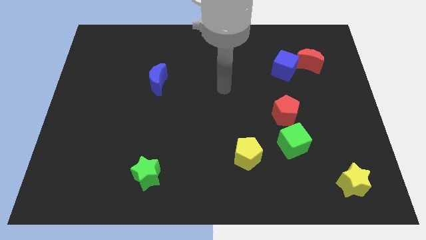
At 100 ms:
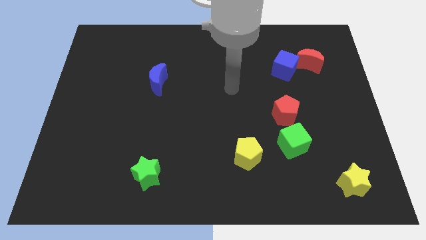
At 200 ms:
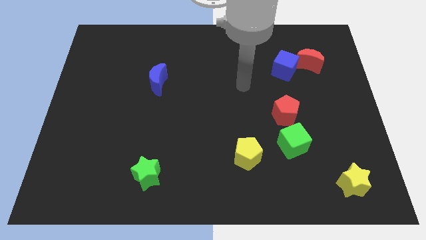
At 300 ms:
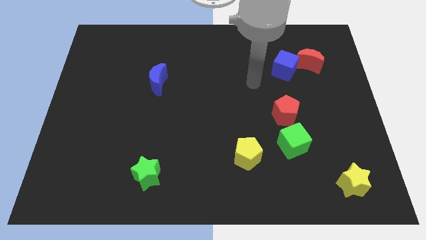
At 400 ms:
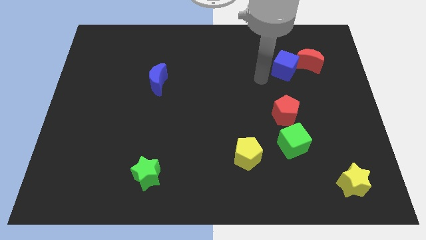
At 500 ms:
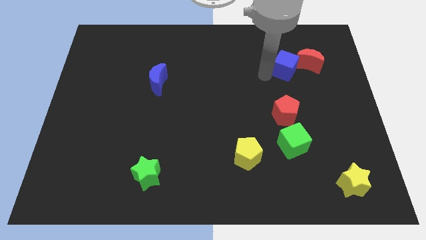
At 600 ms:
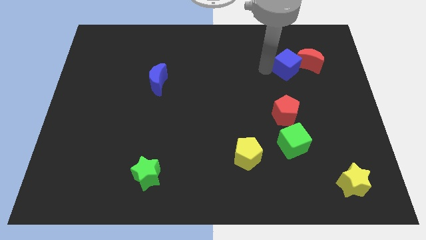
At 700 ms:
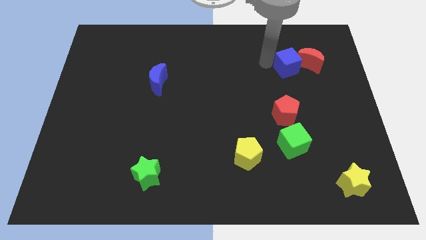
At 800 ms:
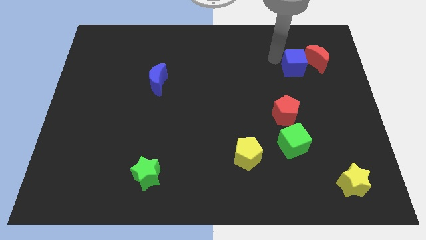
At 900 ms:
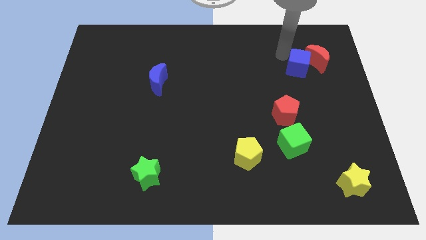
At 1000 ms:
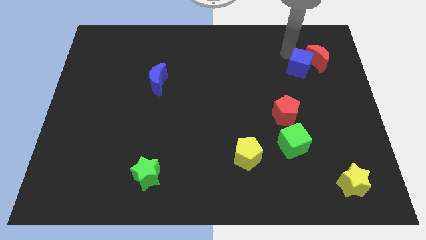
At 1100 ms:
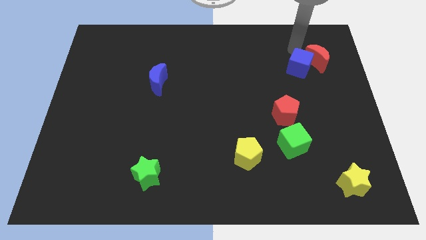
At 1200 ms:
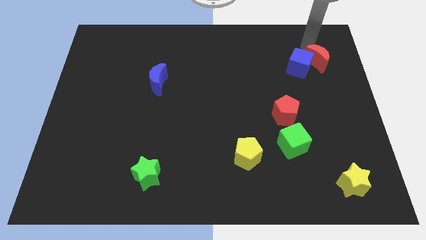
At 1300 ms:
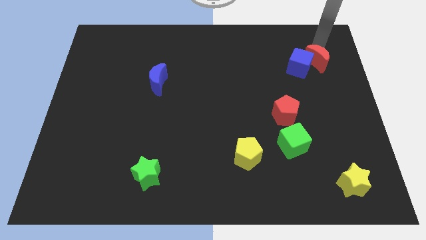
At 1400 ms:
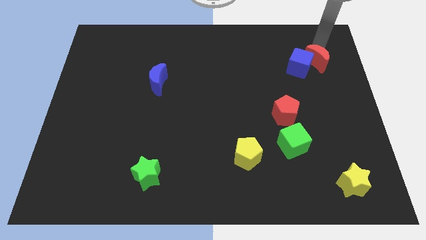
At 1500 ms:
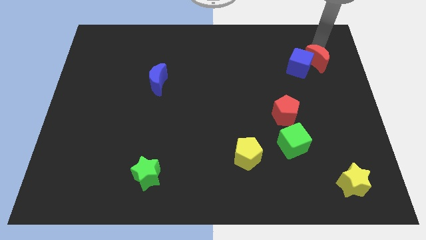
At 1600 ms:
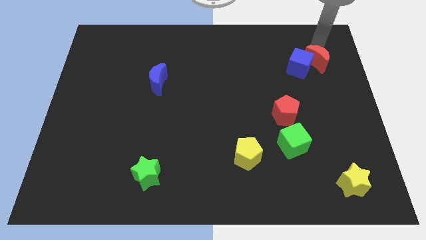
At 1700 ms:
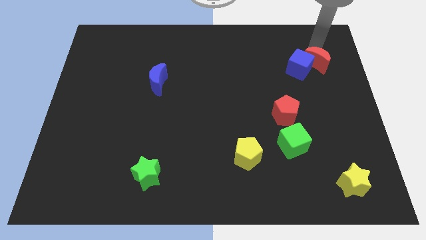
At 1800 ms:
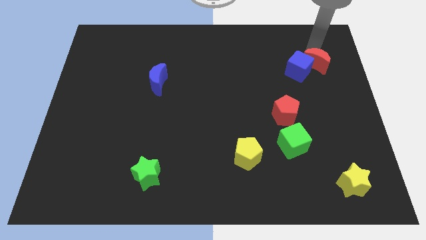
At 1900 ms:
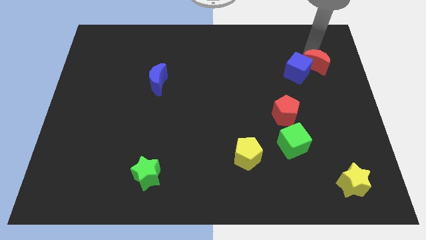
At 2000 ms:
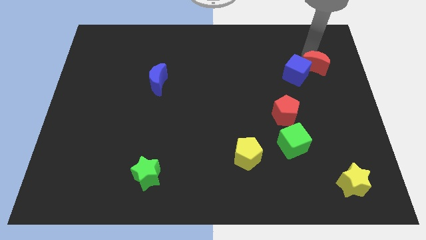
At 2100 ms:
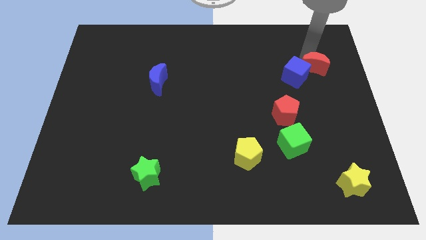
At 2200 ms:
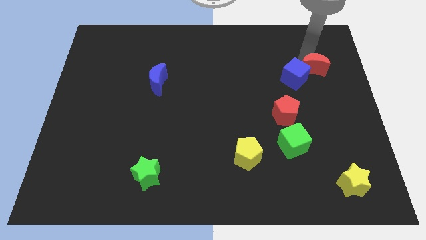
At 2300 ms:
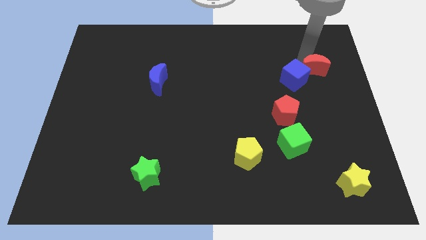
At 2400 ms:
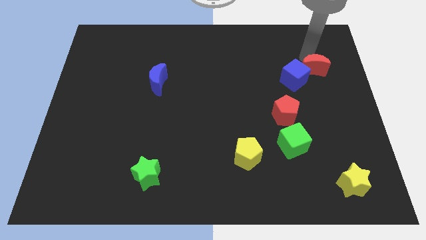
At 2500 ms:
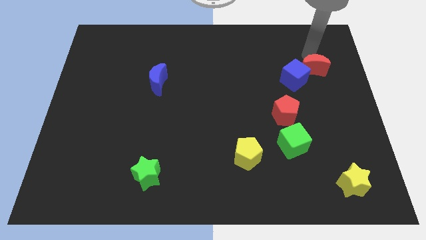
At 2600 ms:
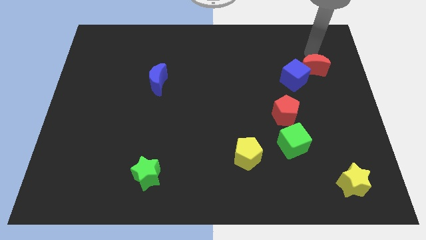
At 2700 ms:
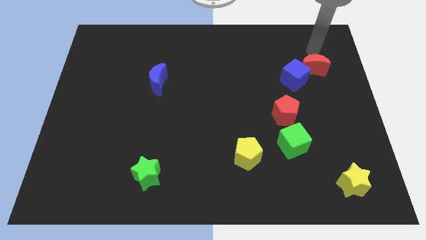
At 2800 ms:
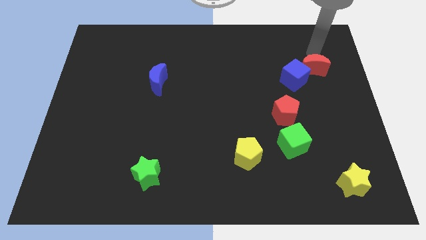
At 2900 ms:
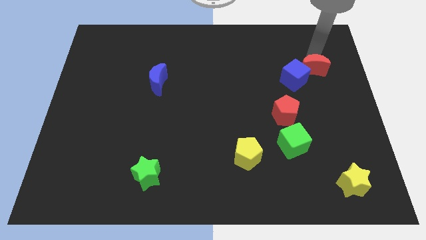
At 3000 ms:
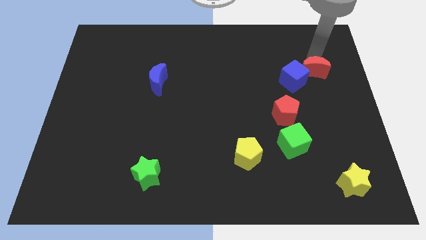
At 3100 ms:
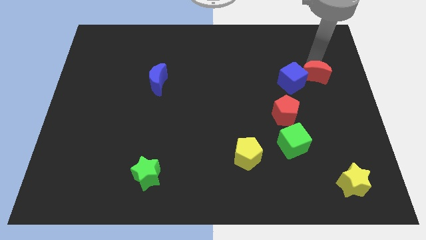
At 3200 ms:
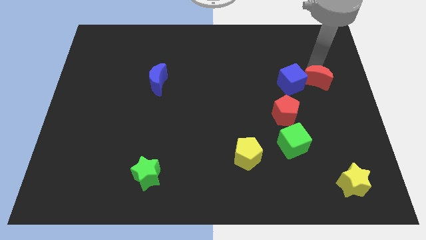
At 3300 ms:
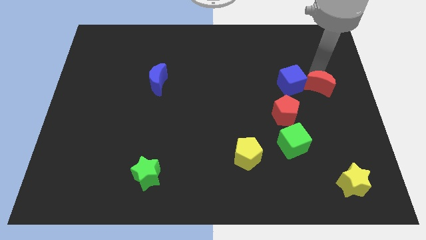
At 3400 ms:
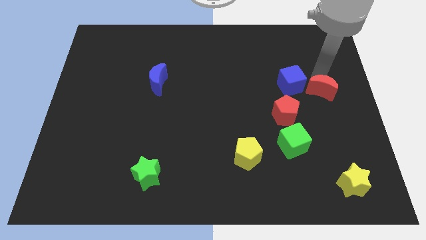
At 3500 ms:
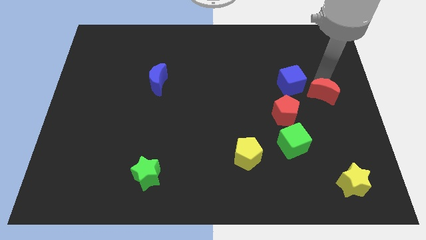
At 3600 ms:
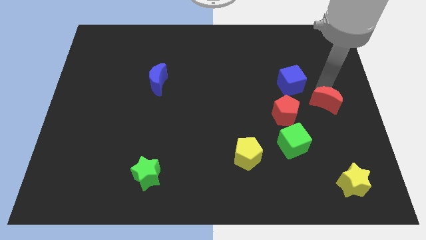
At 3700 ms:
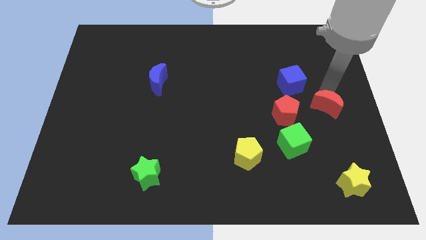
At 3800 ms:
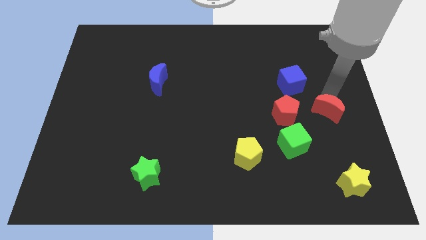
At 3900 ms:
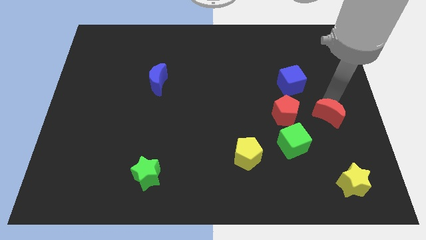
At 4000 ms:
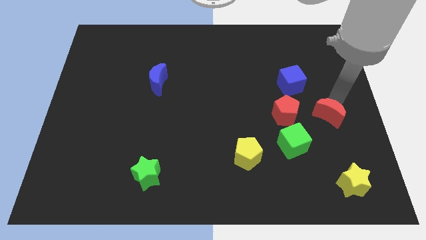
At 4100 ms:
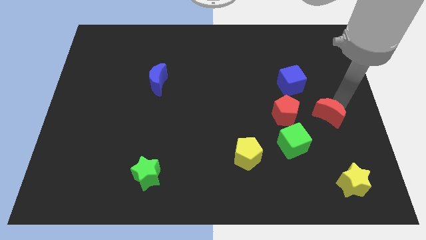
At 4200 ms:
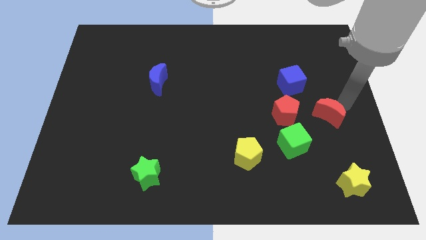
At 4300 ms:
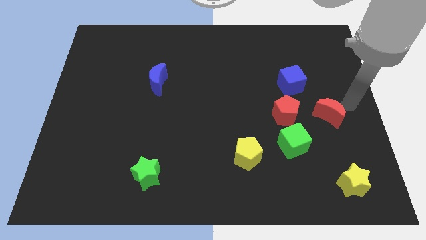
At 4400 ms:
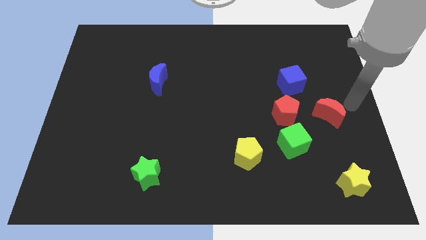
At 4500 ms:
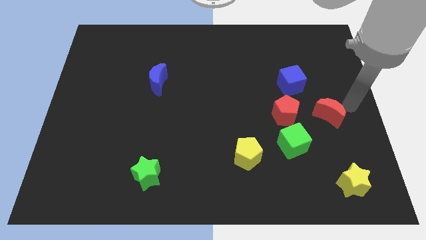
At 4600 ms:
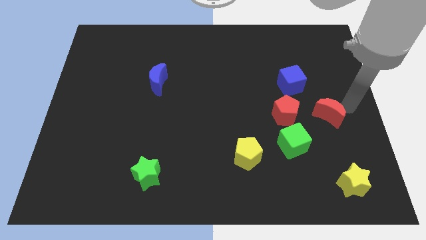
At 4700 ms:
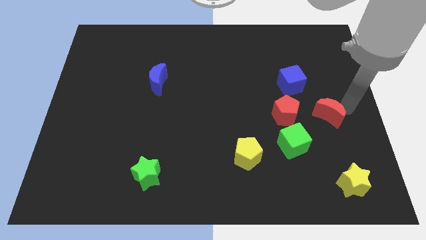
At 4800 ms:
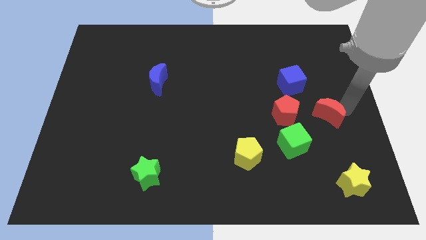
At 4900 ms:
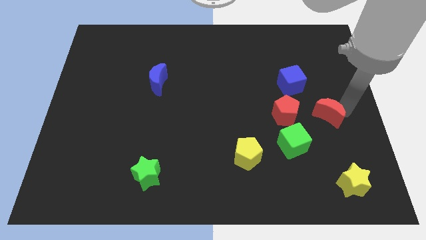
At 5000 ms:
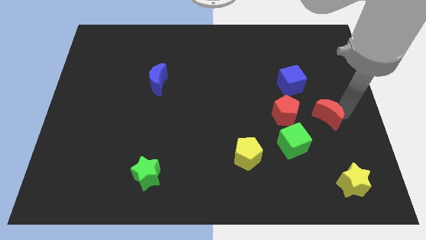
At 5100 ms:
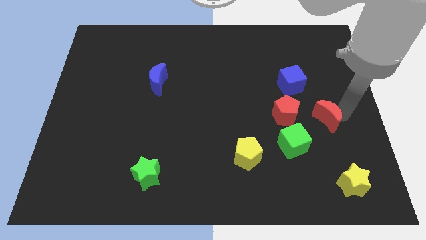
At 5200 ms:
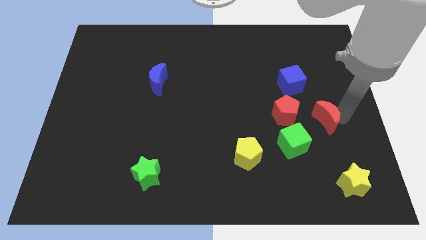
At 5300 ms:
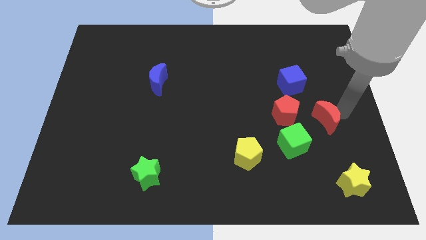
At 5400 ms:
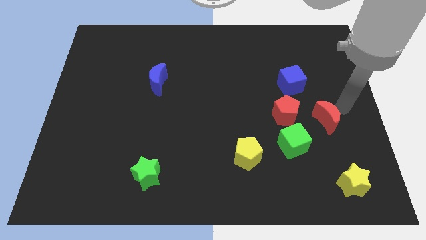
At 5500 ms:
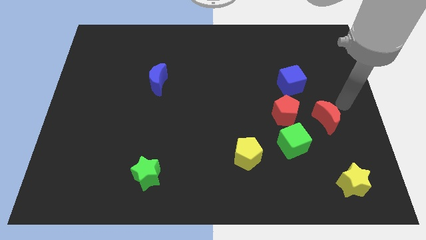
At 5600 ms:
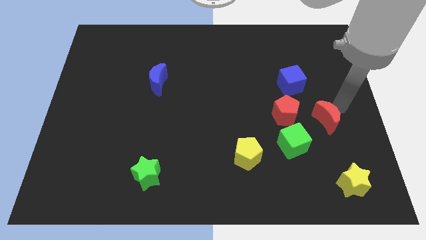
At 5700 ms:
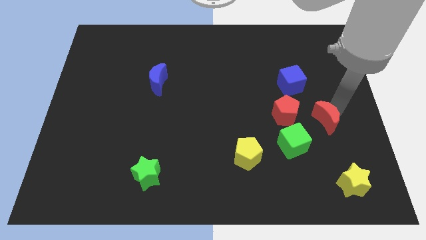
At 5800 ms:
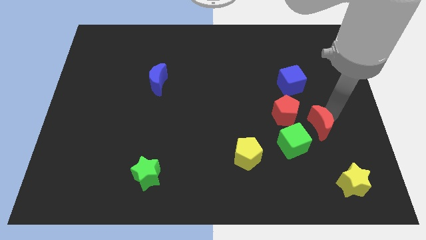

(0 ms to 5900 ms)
move the red moon to the bottom right side of the red pentagon

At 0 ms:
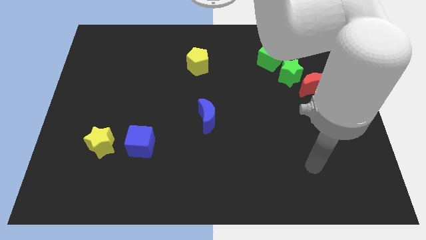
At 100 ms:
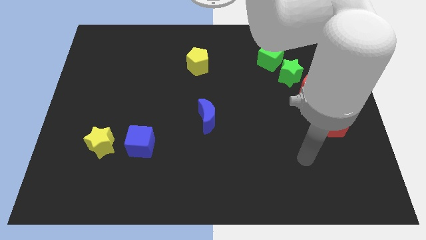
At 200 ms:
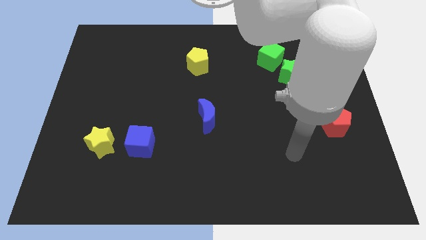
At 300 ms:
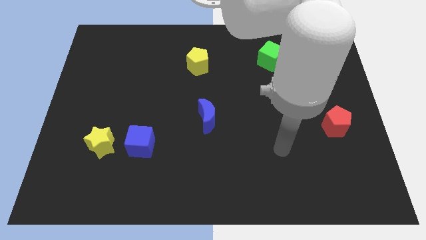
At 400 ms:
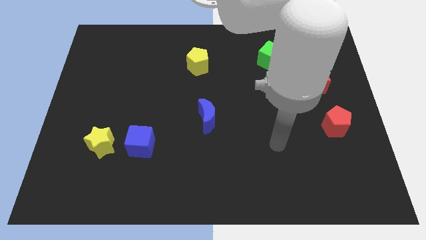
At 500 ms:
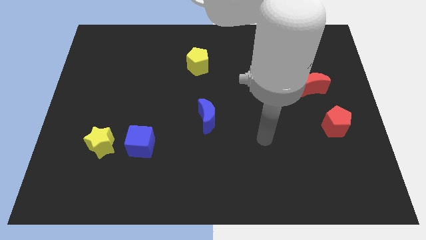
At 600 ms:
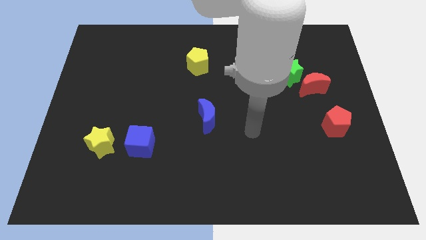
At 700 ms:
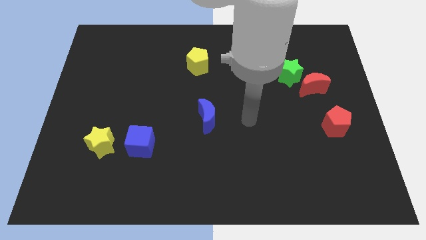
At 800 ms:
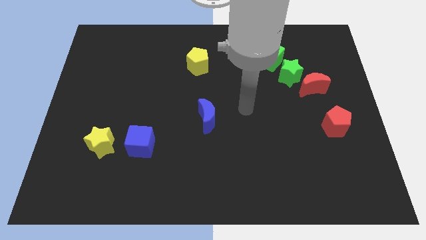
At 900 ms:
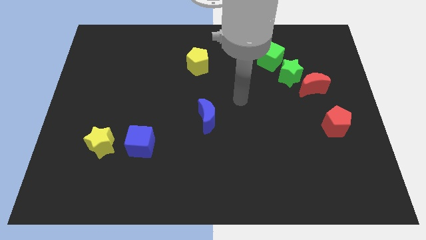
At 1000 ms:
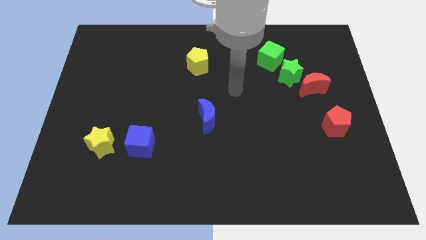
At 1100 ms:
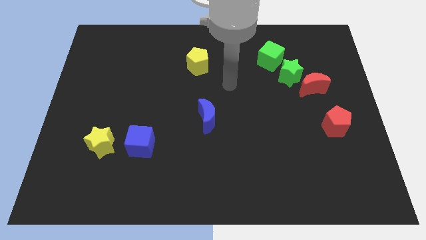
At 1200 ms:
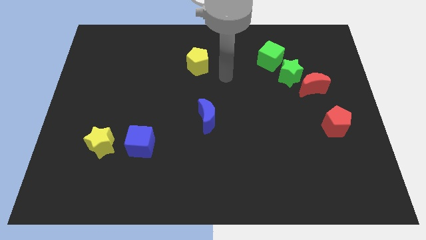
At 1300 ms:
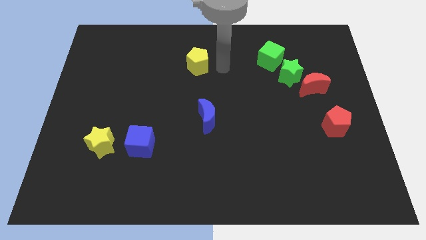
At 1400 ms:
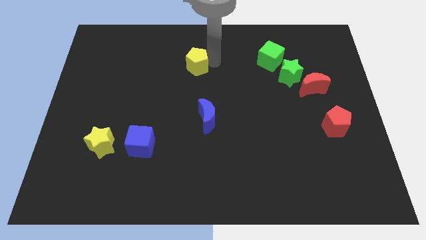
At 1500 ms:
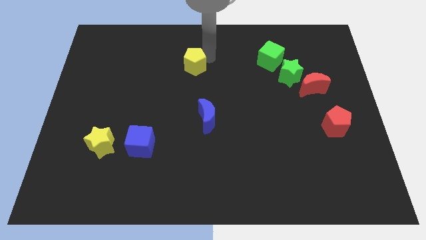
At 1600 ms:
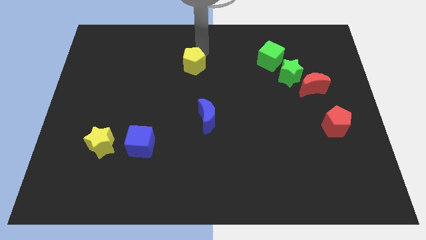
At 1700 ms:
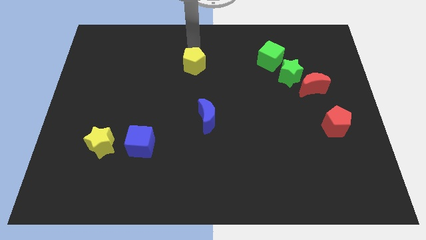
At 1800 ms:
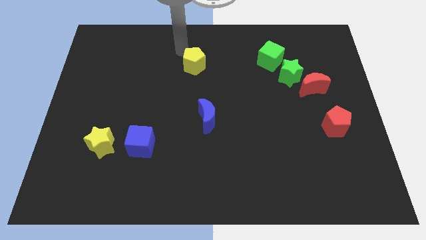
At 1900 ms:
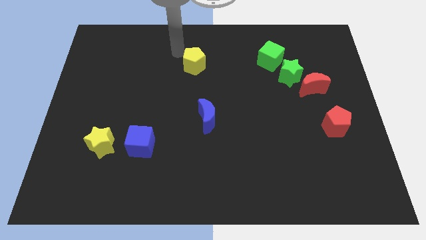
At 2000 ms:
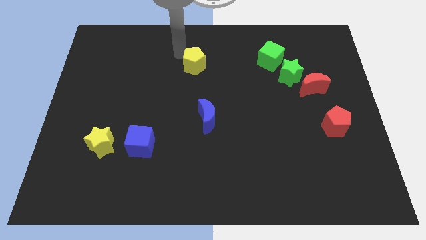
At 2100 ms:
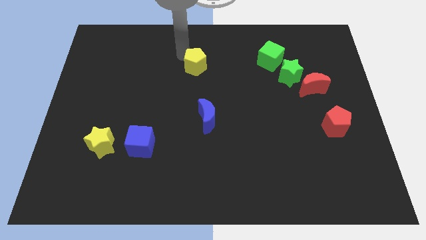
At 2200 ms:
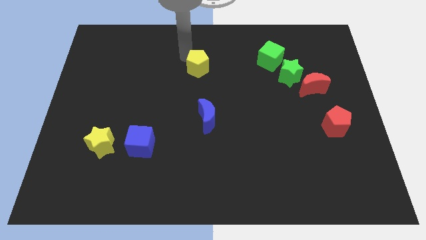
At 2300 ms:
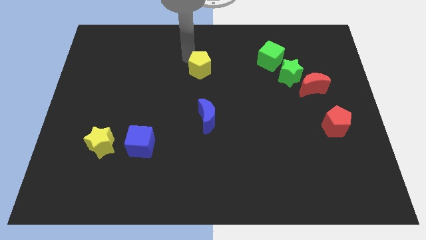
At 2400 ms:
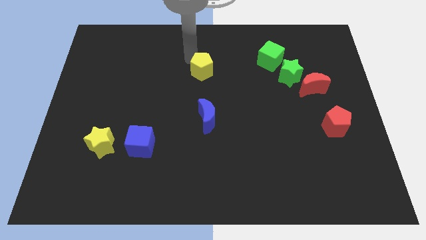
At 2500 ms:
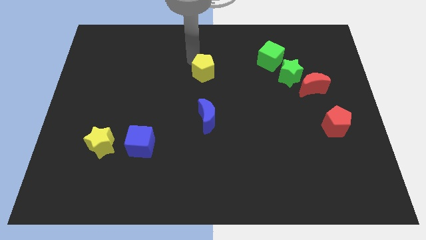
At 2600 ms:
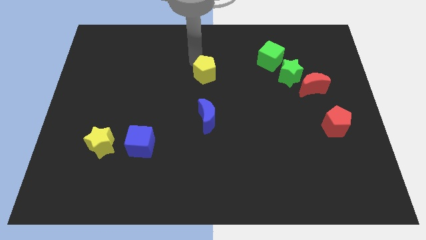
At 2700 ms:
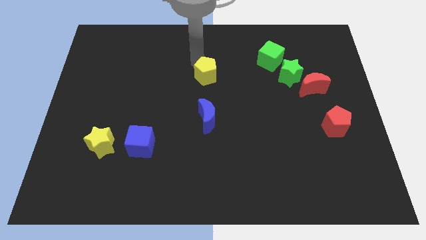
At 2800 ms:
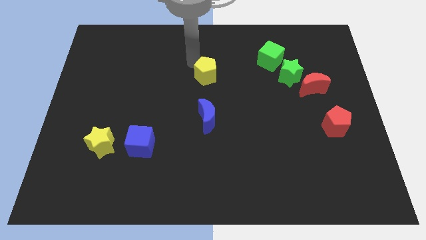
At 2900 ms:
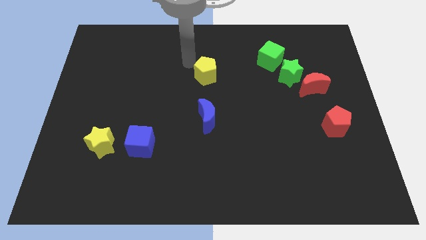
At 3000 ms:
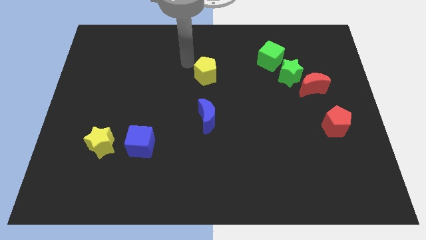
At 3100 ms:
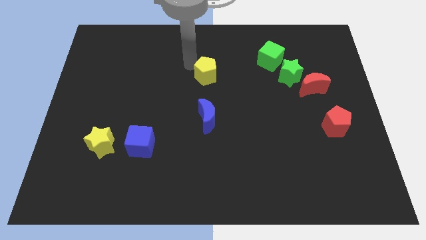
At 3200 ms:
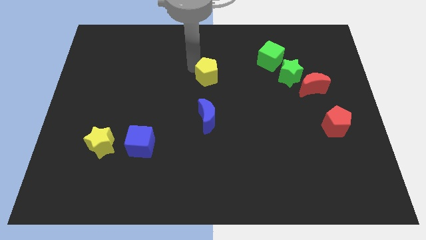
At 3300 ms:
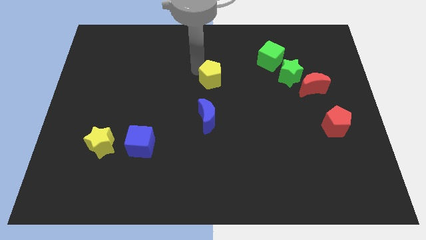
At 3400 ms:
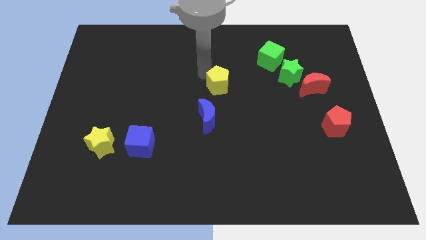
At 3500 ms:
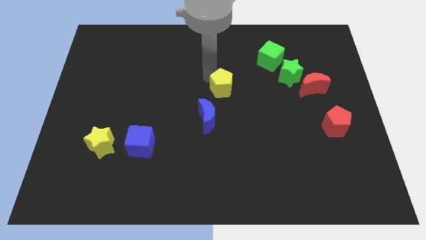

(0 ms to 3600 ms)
put the yellow pentagon to the top right side of the blue moon
